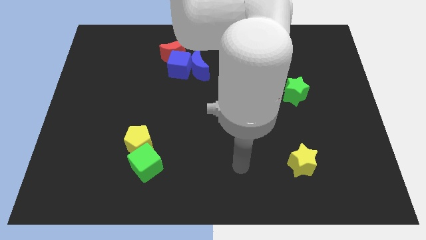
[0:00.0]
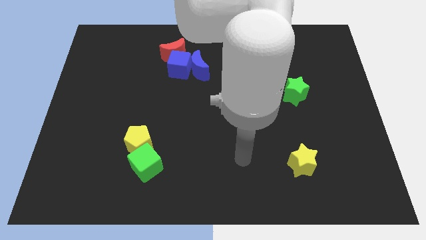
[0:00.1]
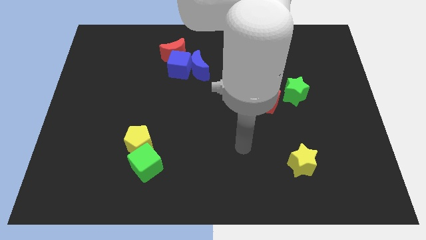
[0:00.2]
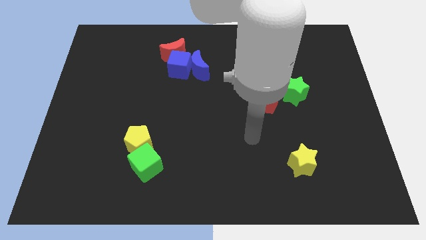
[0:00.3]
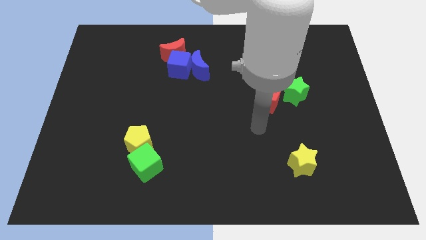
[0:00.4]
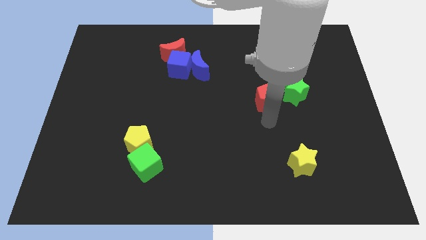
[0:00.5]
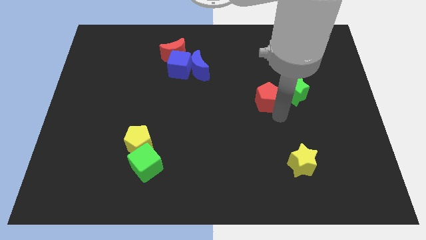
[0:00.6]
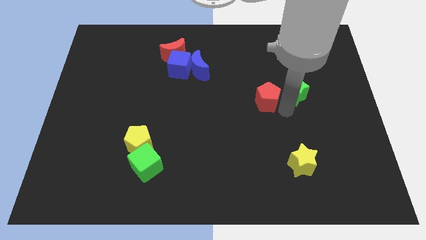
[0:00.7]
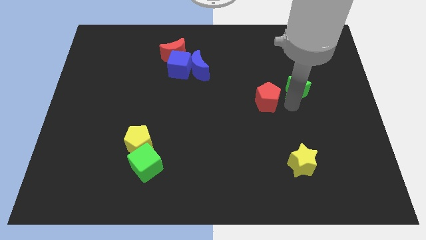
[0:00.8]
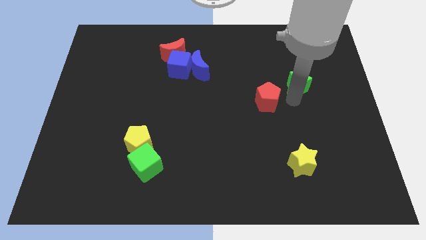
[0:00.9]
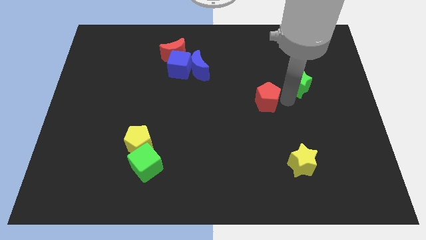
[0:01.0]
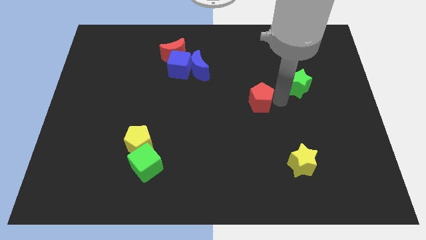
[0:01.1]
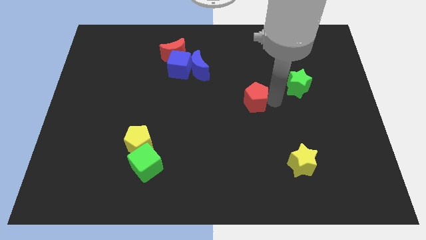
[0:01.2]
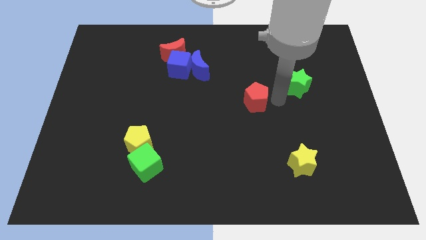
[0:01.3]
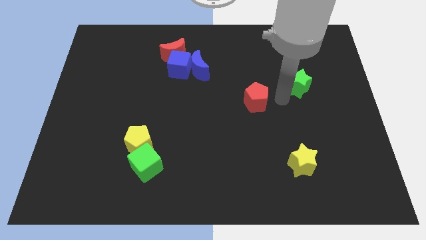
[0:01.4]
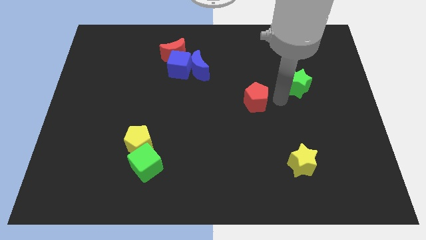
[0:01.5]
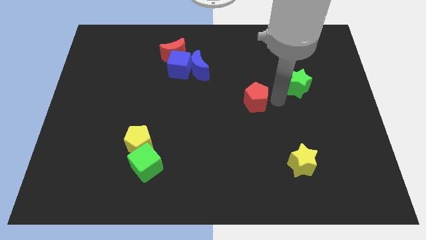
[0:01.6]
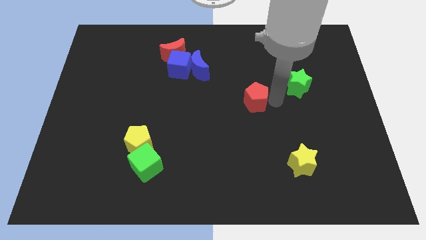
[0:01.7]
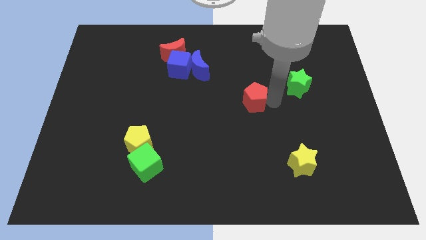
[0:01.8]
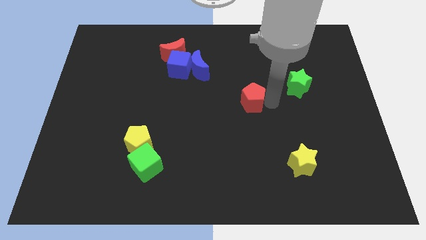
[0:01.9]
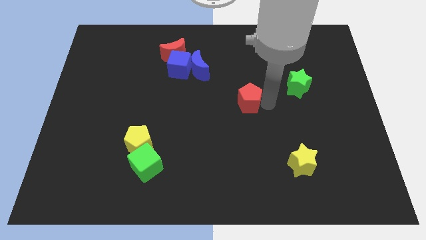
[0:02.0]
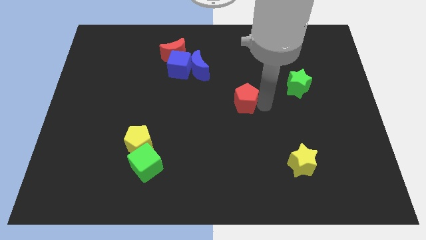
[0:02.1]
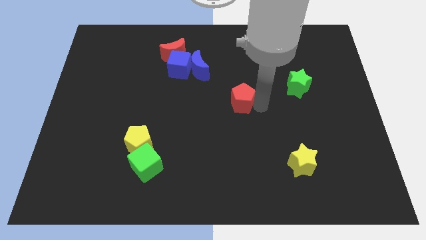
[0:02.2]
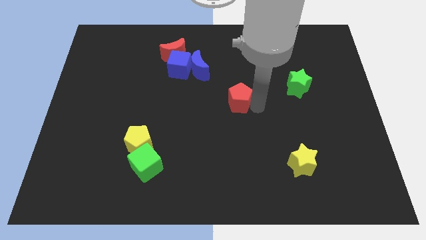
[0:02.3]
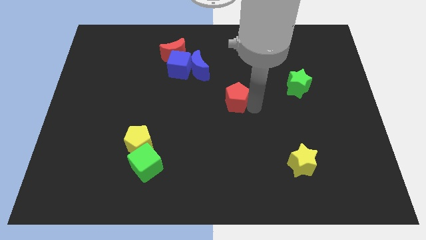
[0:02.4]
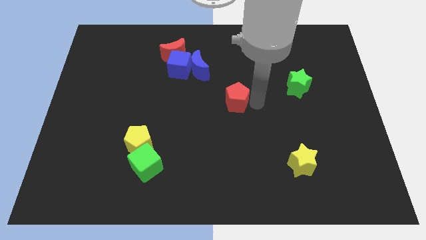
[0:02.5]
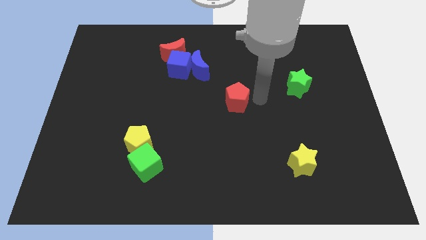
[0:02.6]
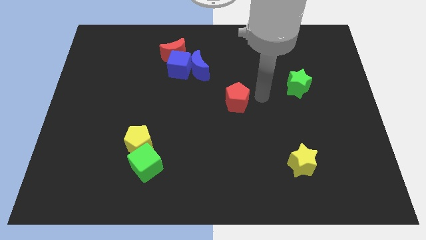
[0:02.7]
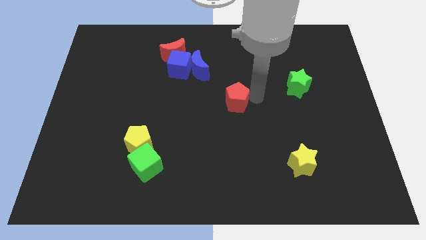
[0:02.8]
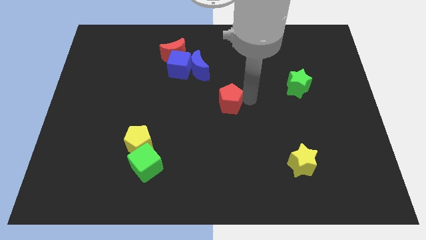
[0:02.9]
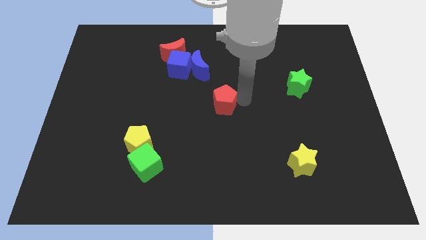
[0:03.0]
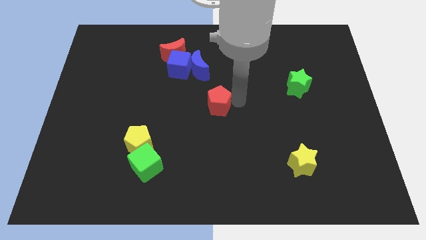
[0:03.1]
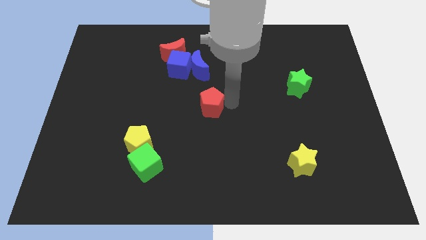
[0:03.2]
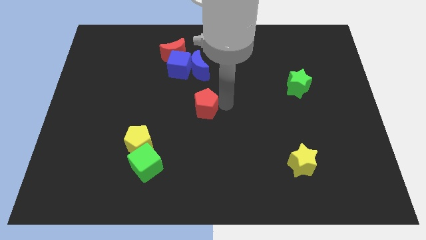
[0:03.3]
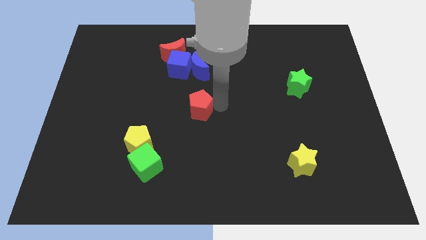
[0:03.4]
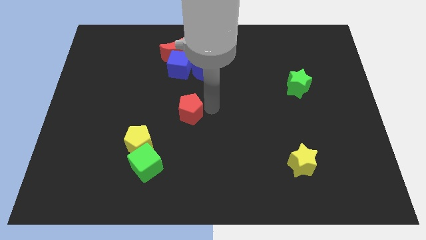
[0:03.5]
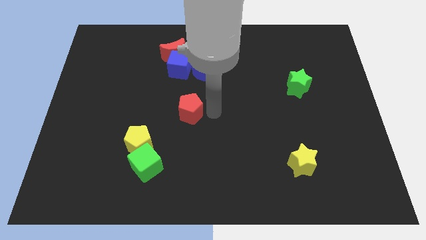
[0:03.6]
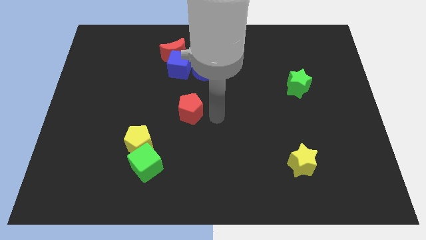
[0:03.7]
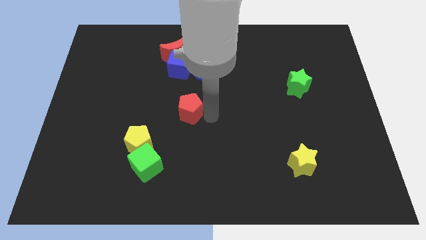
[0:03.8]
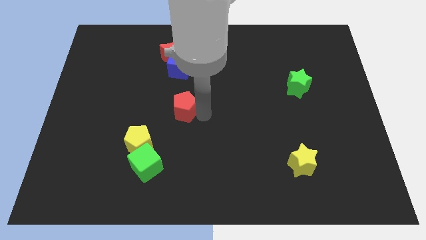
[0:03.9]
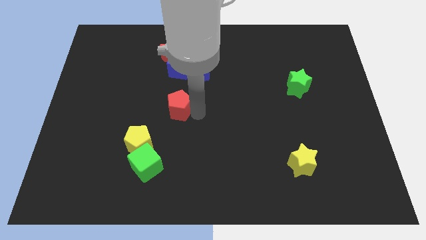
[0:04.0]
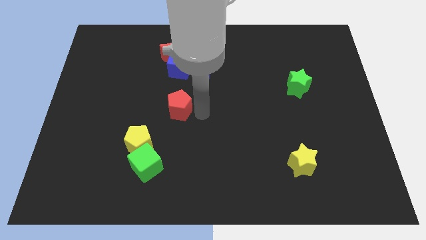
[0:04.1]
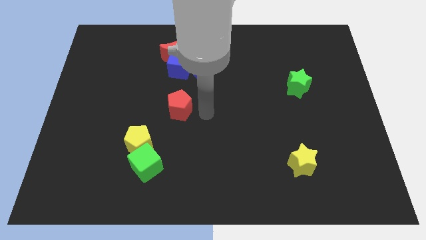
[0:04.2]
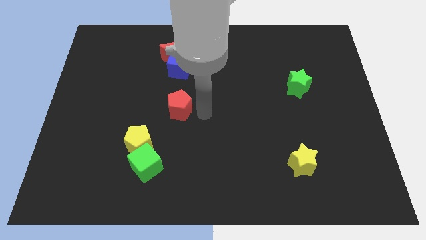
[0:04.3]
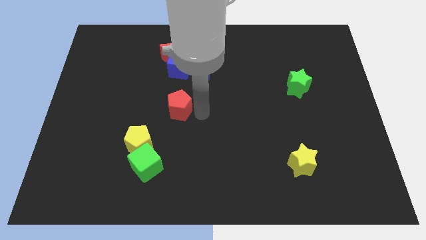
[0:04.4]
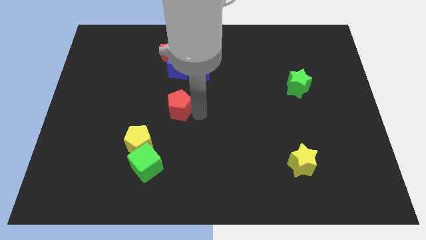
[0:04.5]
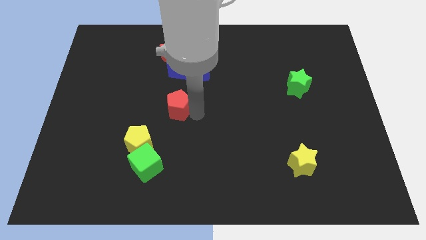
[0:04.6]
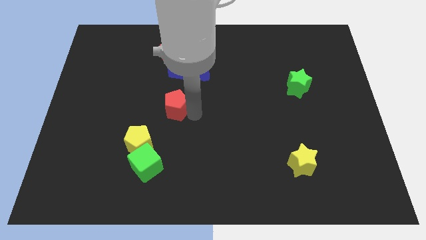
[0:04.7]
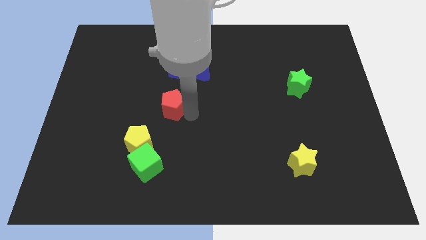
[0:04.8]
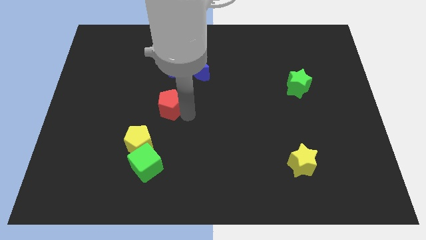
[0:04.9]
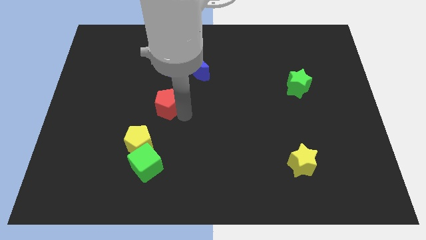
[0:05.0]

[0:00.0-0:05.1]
push the red pentagon to the top of the yellow pentagon

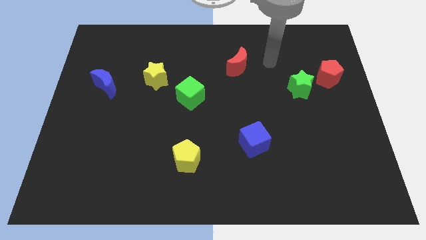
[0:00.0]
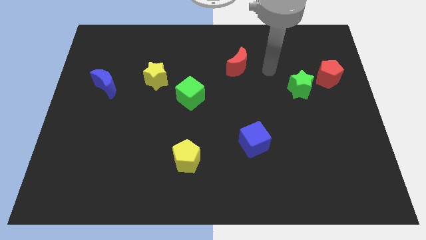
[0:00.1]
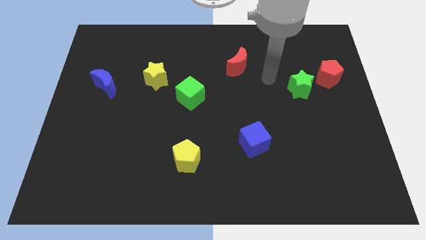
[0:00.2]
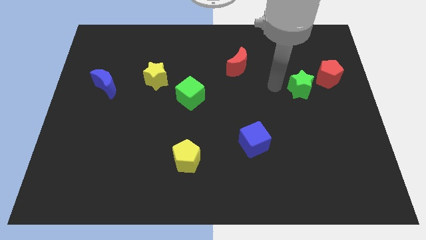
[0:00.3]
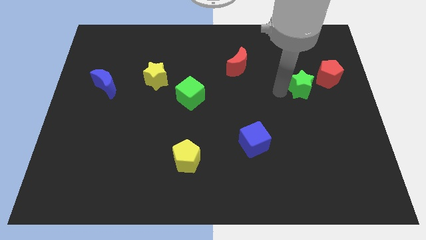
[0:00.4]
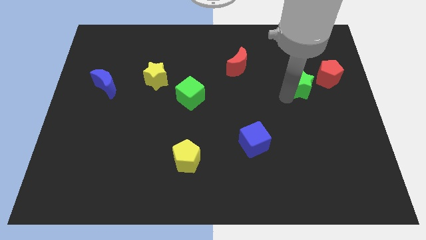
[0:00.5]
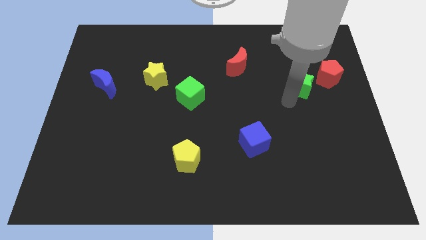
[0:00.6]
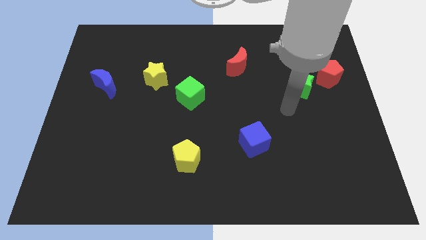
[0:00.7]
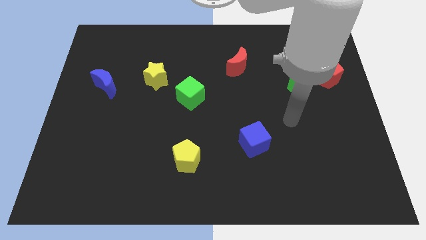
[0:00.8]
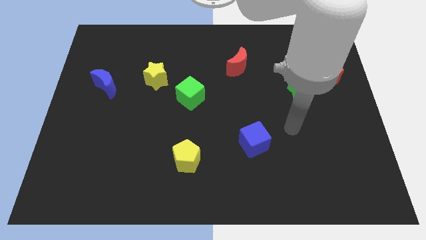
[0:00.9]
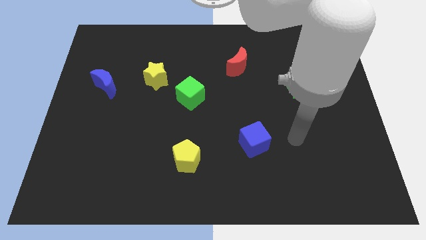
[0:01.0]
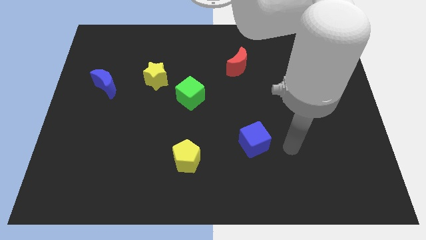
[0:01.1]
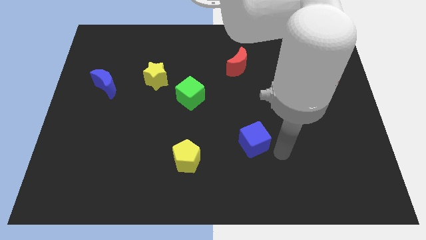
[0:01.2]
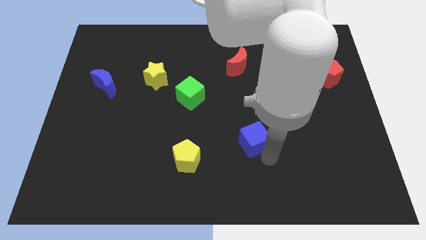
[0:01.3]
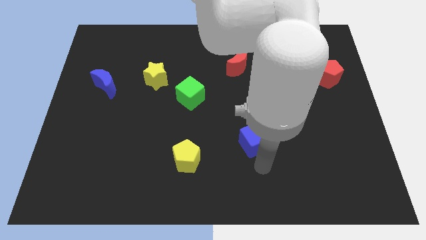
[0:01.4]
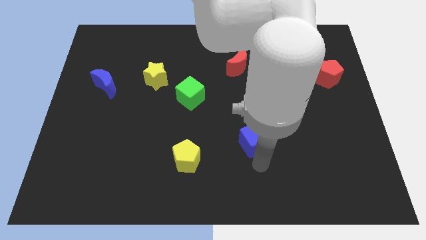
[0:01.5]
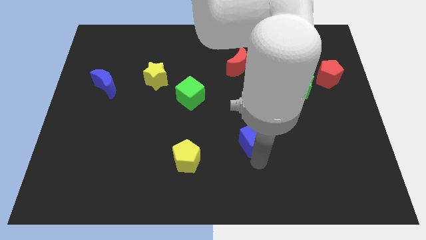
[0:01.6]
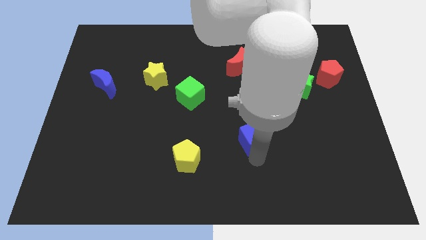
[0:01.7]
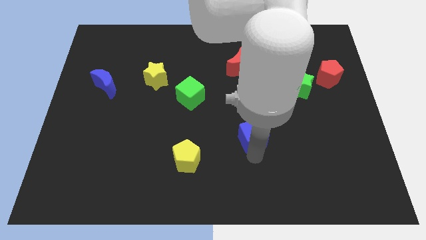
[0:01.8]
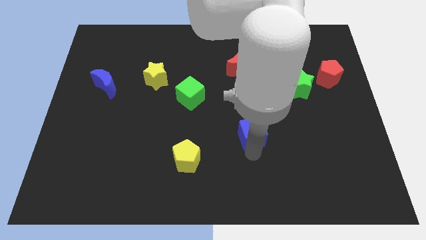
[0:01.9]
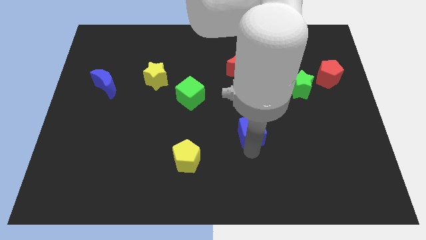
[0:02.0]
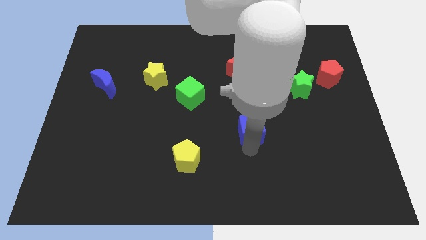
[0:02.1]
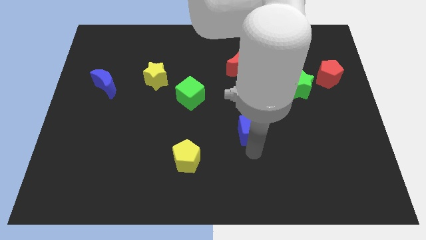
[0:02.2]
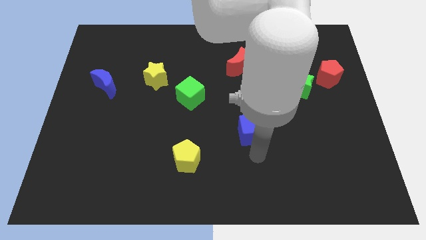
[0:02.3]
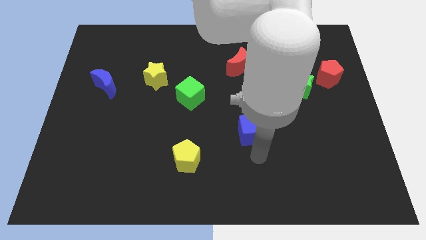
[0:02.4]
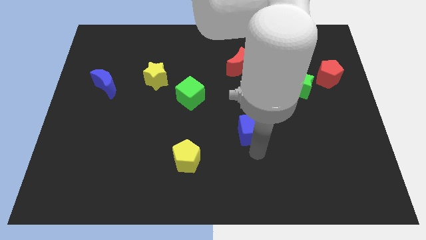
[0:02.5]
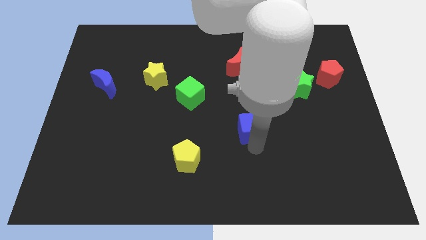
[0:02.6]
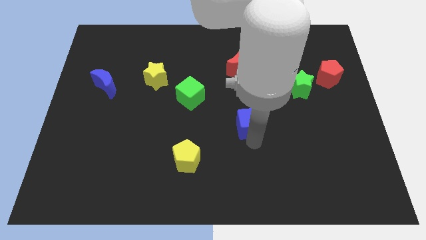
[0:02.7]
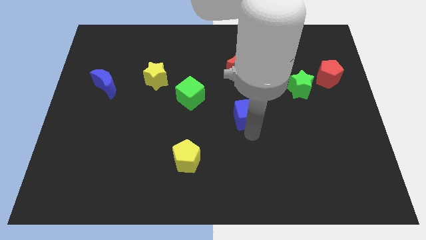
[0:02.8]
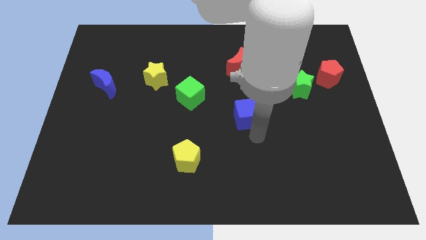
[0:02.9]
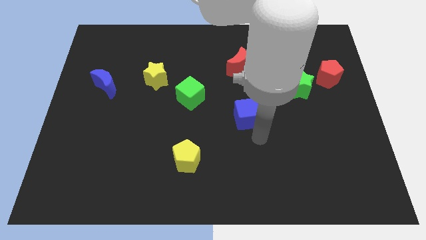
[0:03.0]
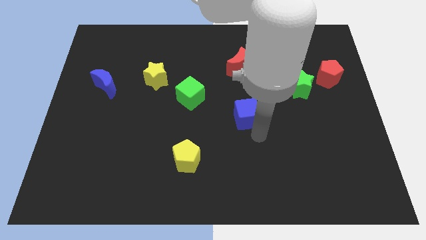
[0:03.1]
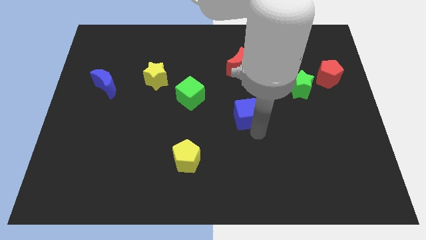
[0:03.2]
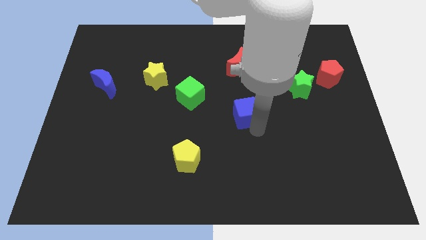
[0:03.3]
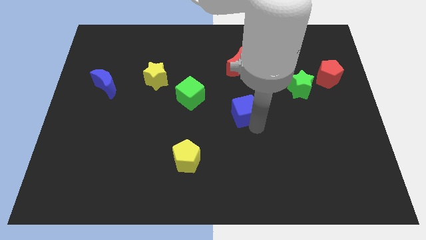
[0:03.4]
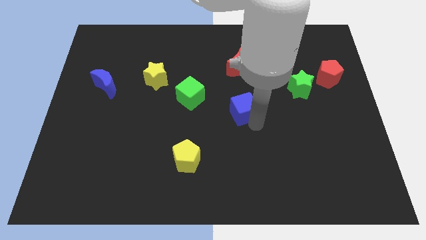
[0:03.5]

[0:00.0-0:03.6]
push the blue cube to the right side of the green cube
